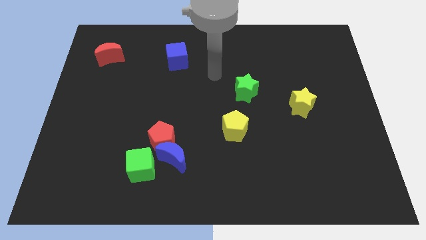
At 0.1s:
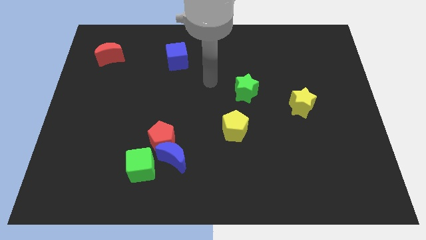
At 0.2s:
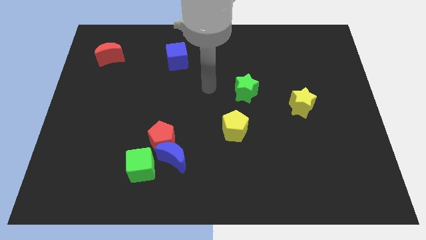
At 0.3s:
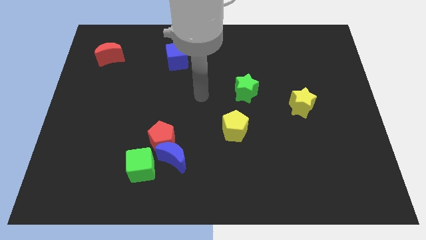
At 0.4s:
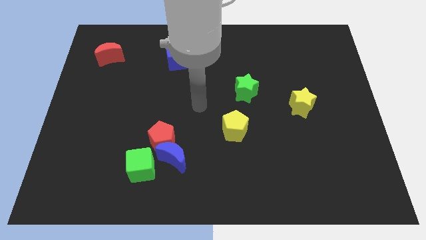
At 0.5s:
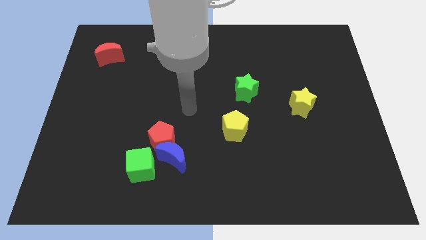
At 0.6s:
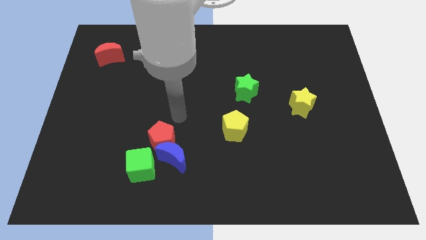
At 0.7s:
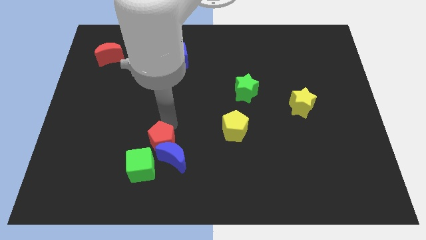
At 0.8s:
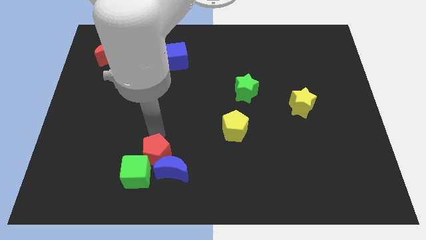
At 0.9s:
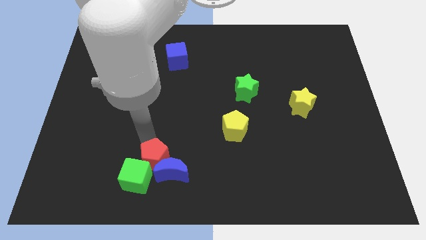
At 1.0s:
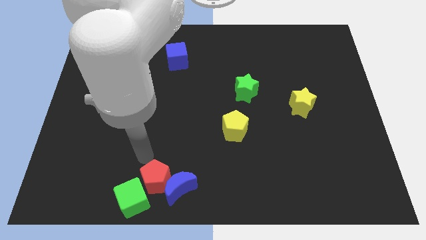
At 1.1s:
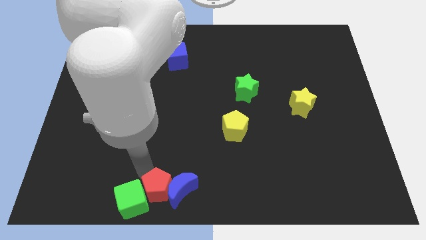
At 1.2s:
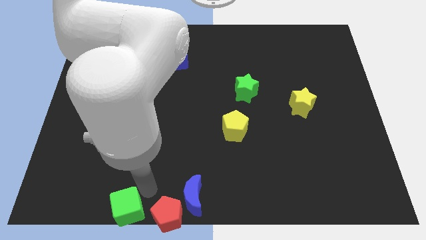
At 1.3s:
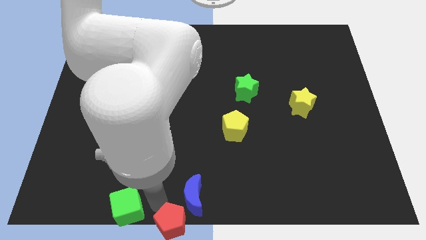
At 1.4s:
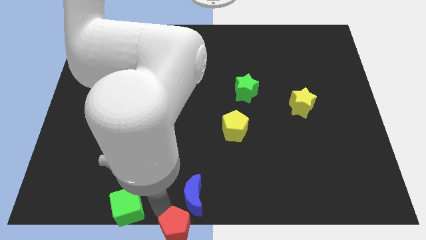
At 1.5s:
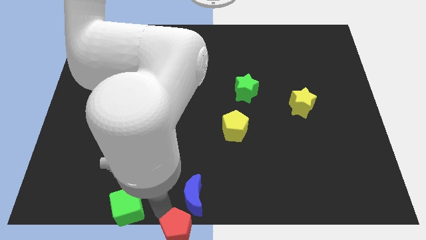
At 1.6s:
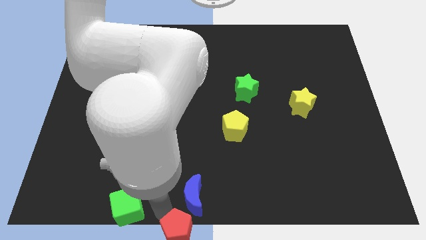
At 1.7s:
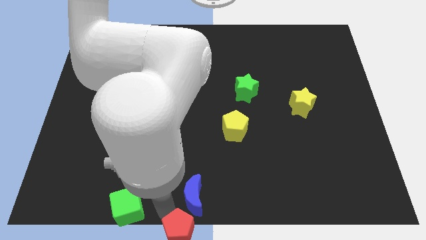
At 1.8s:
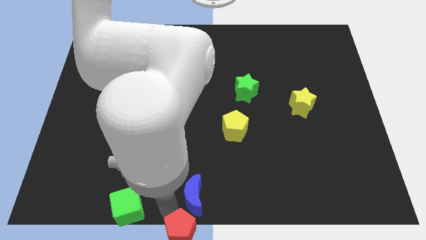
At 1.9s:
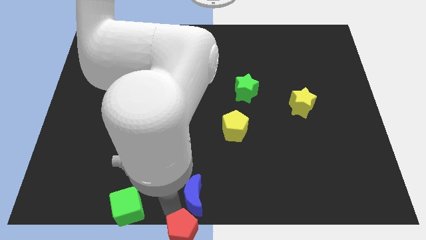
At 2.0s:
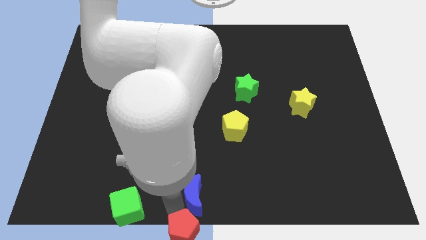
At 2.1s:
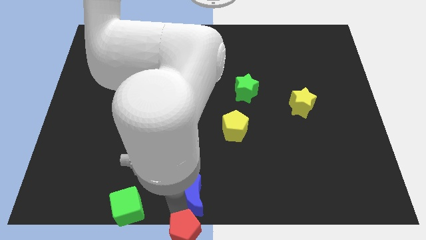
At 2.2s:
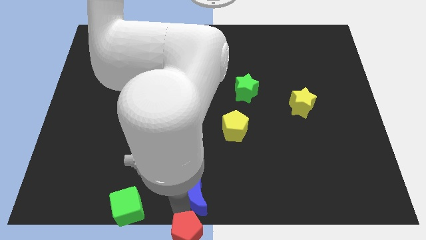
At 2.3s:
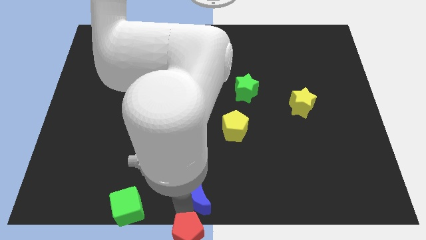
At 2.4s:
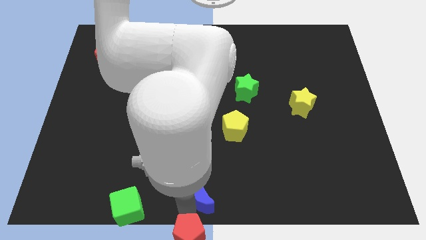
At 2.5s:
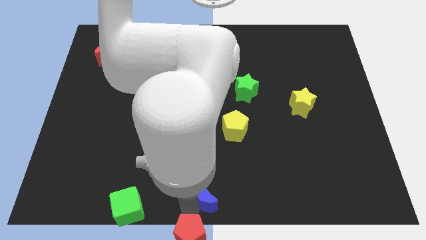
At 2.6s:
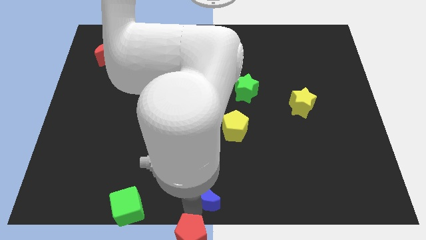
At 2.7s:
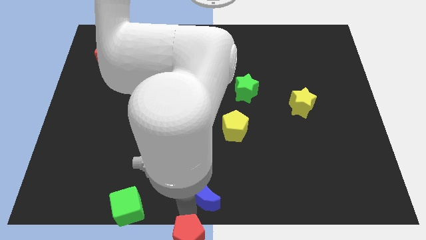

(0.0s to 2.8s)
move the blue moon away from the red pentagon and green cube

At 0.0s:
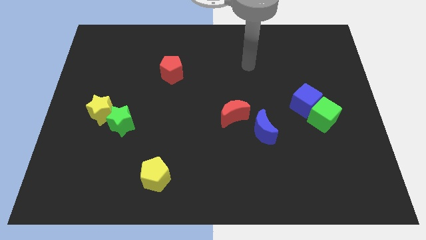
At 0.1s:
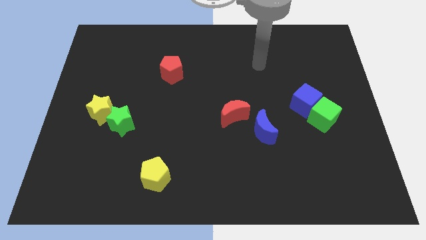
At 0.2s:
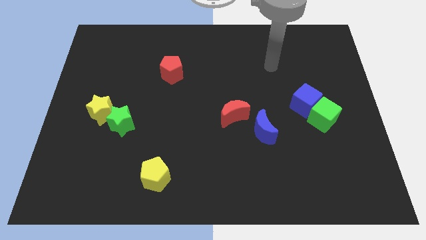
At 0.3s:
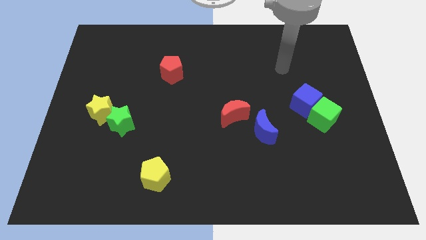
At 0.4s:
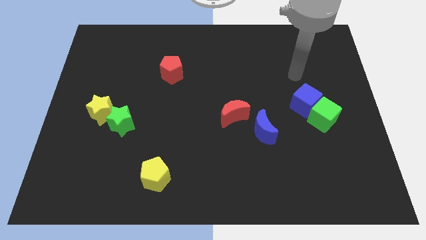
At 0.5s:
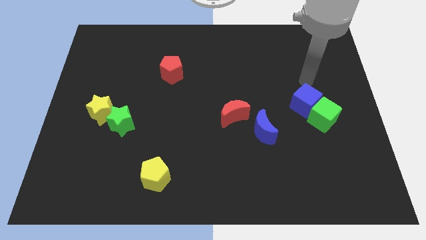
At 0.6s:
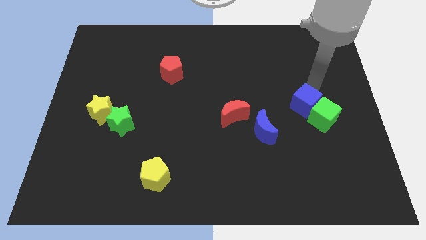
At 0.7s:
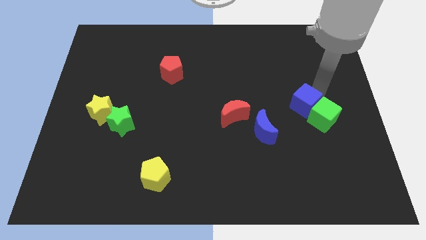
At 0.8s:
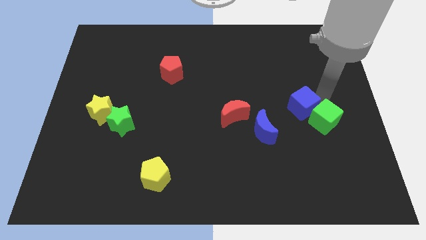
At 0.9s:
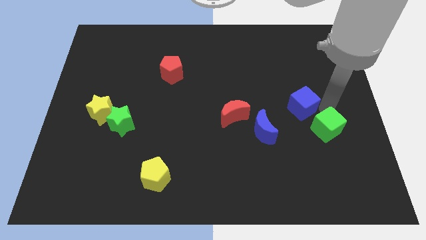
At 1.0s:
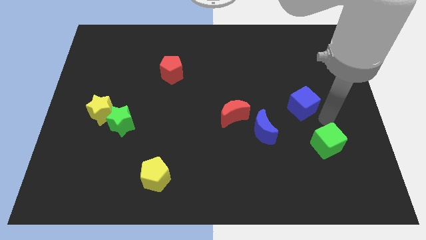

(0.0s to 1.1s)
separate the blue cube from the green cube

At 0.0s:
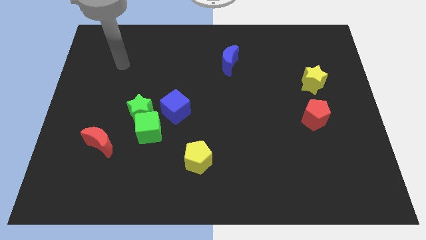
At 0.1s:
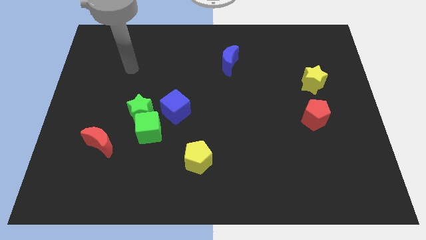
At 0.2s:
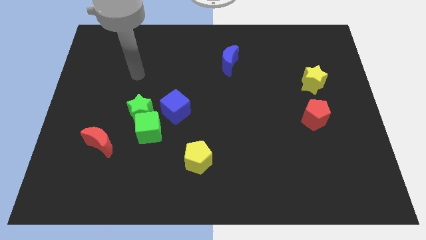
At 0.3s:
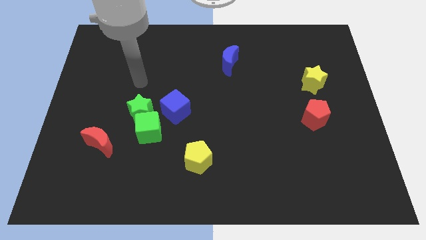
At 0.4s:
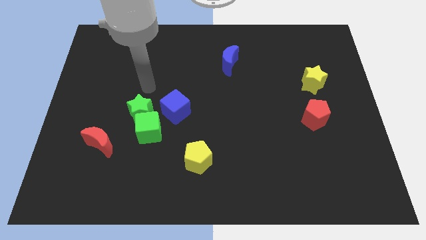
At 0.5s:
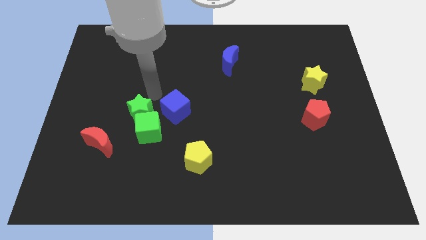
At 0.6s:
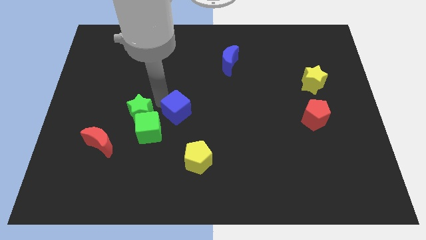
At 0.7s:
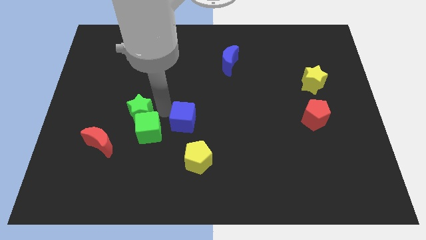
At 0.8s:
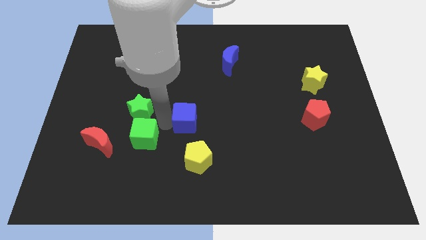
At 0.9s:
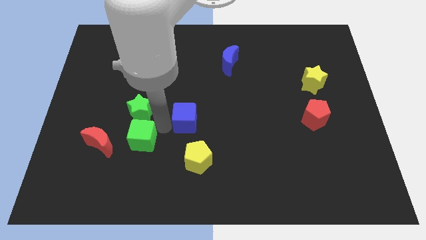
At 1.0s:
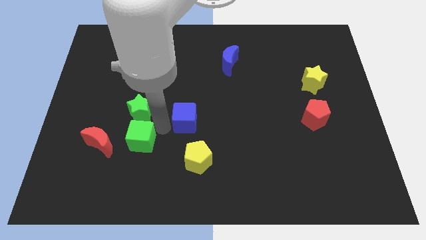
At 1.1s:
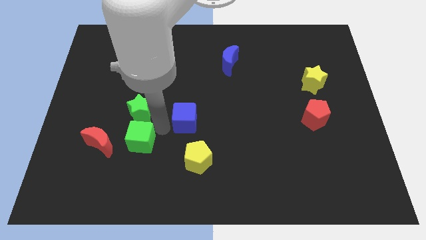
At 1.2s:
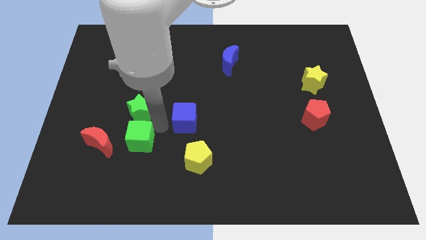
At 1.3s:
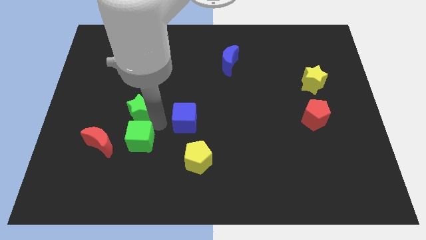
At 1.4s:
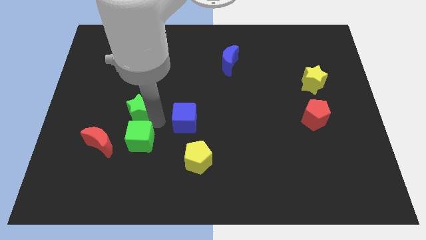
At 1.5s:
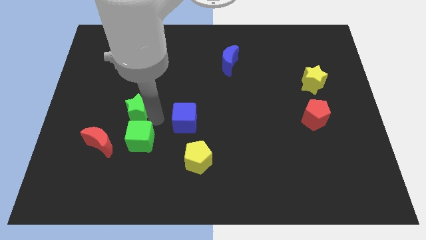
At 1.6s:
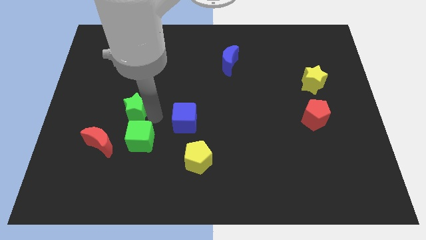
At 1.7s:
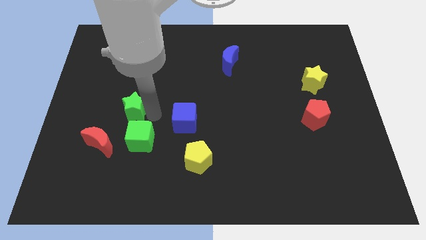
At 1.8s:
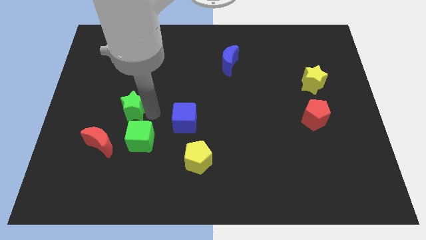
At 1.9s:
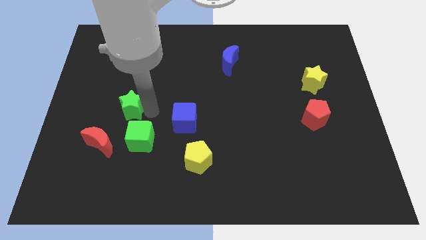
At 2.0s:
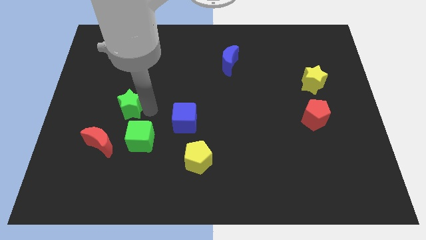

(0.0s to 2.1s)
pull the green star apart from the green cube and blue cube

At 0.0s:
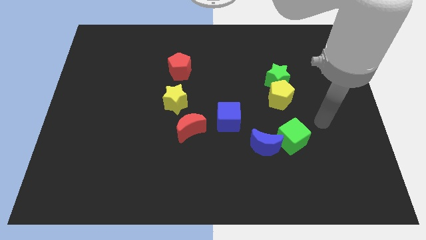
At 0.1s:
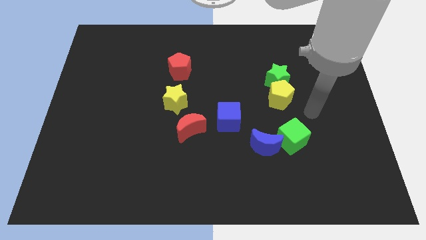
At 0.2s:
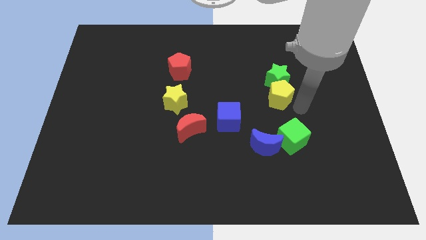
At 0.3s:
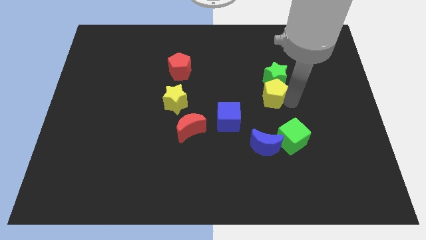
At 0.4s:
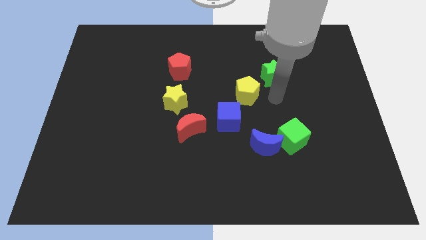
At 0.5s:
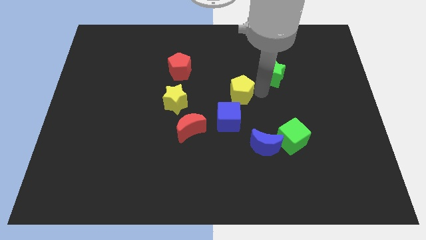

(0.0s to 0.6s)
separate the green star from the yellow pentagon

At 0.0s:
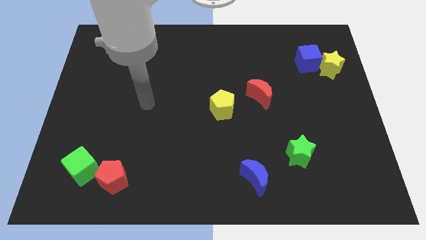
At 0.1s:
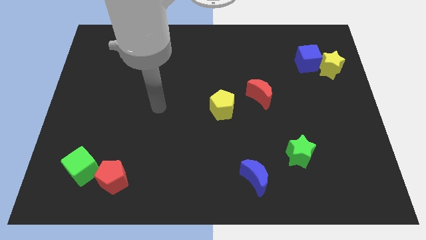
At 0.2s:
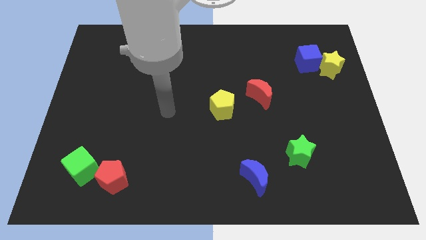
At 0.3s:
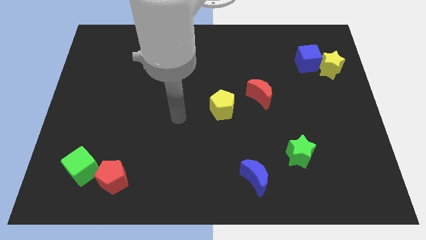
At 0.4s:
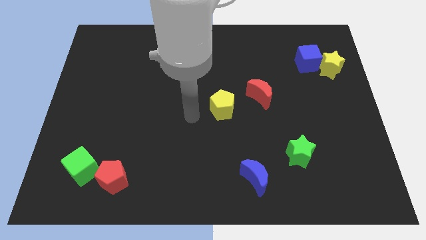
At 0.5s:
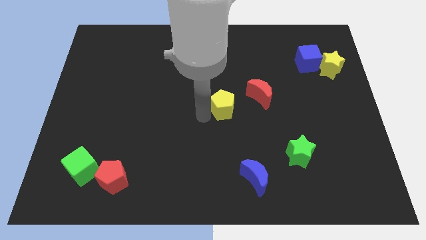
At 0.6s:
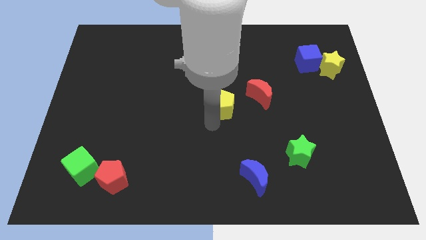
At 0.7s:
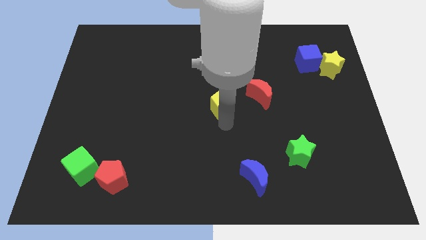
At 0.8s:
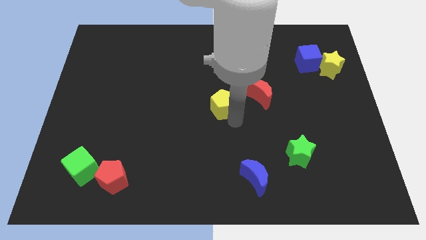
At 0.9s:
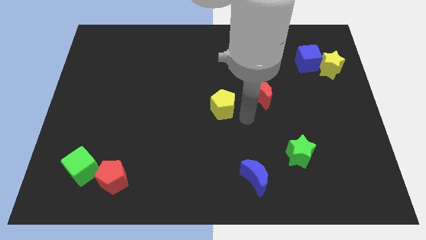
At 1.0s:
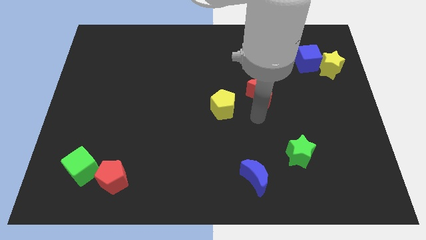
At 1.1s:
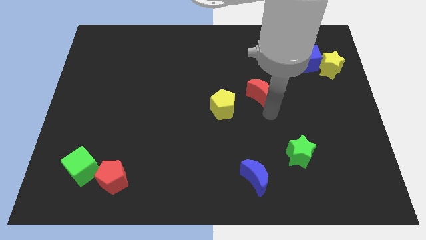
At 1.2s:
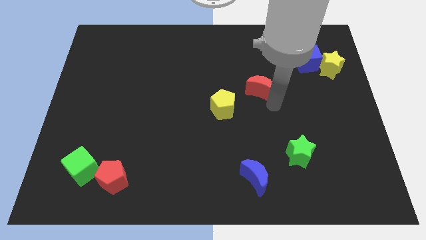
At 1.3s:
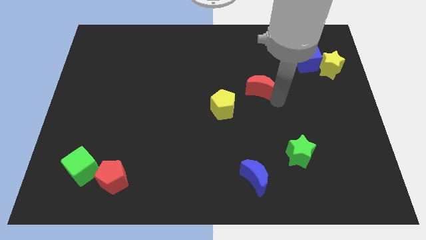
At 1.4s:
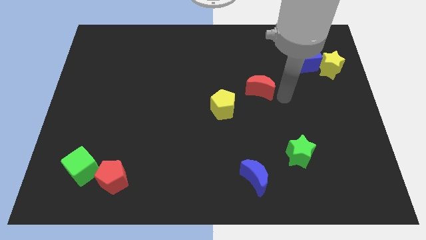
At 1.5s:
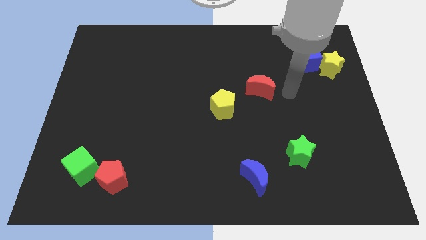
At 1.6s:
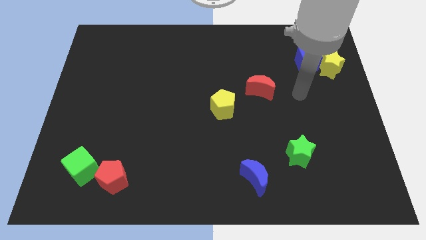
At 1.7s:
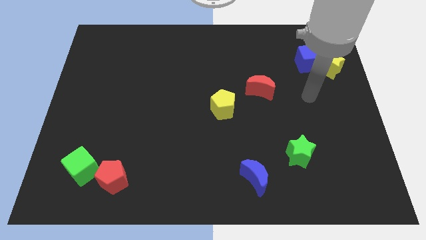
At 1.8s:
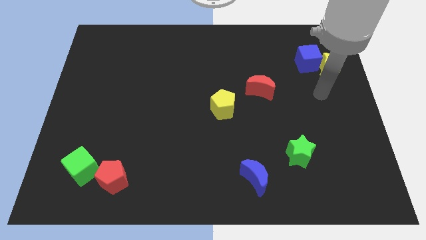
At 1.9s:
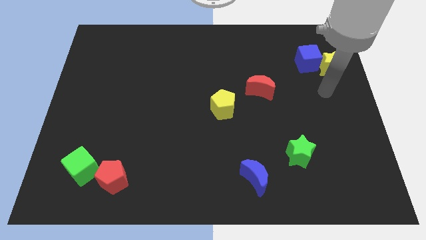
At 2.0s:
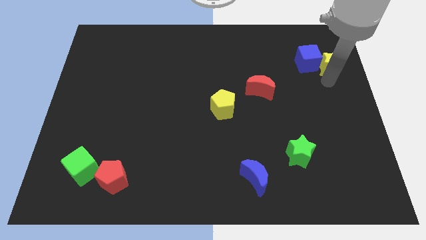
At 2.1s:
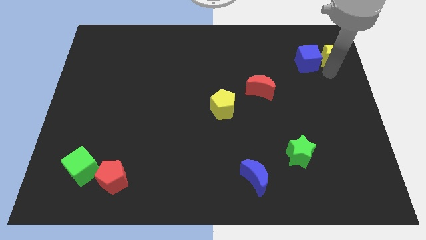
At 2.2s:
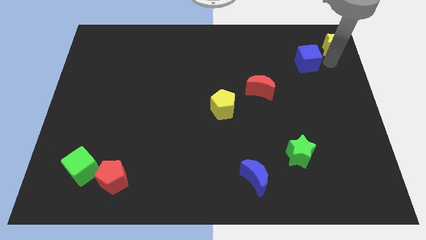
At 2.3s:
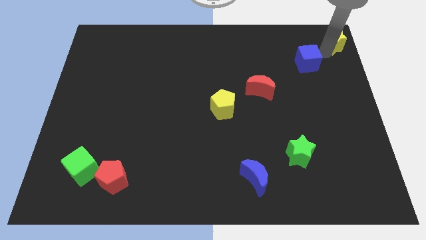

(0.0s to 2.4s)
move the blue cube away from the yellow star

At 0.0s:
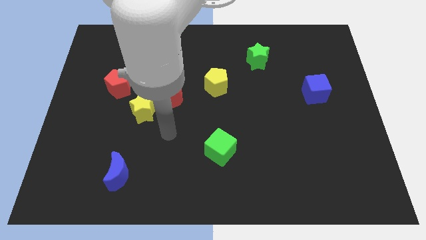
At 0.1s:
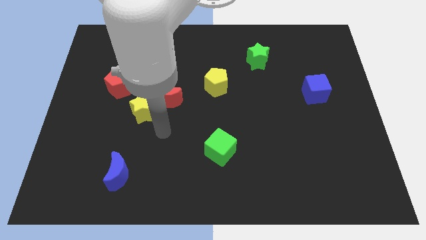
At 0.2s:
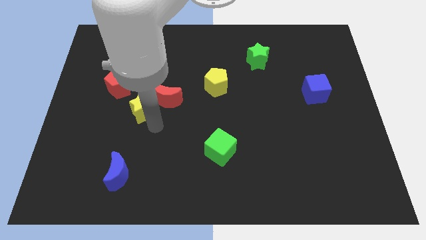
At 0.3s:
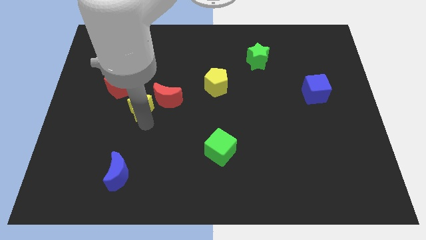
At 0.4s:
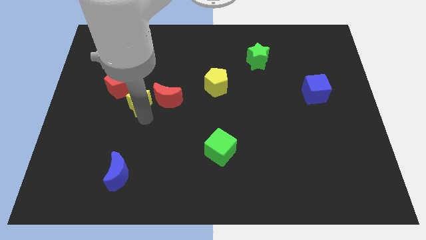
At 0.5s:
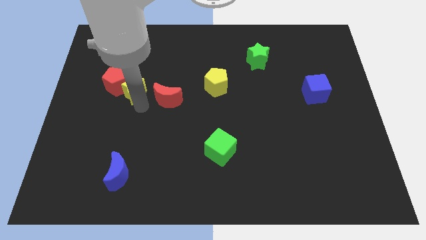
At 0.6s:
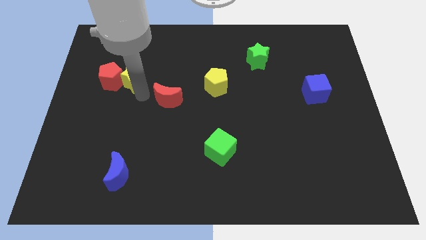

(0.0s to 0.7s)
separate the red moon from the yellow star
